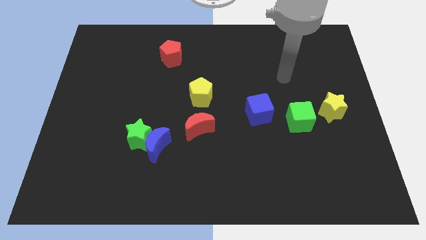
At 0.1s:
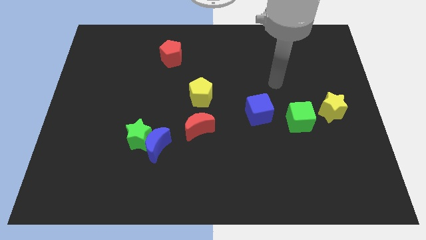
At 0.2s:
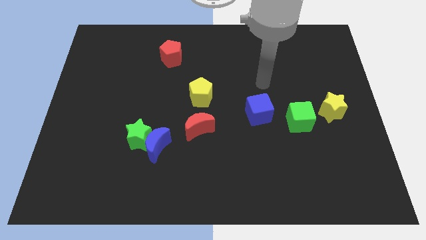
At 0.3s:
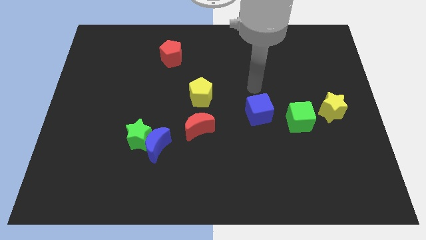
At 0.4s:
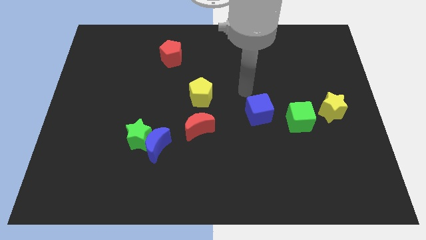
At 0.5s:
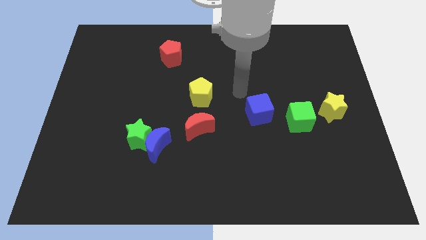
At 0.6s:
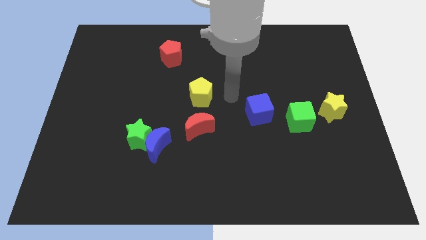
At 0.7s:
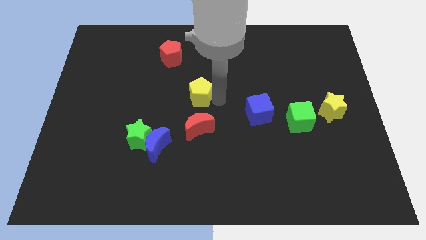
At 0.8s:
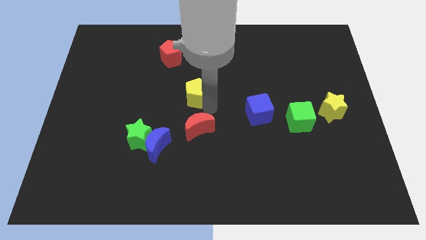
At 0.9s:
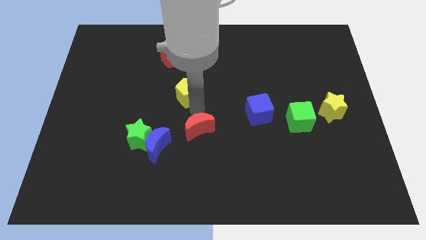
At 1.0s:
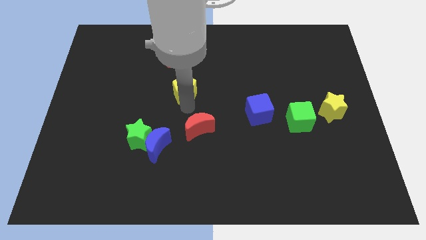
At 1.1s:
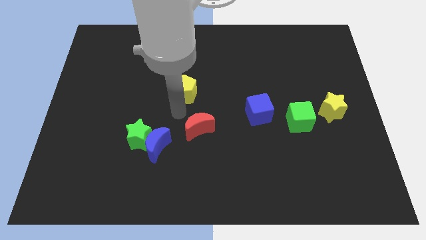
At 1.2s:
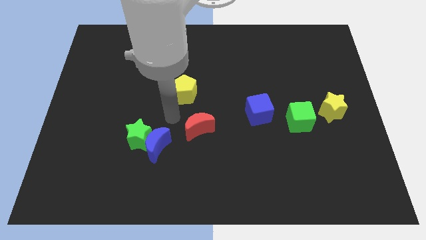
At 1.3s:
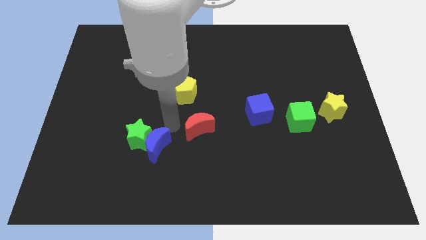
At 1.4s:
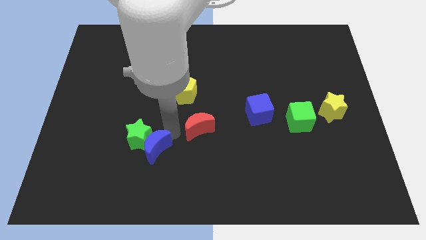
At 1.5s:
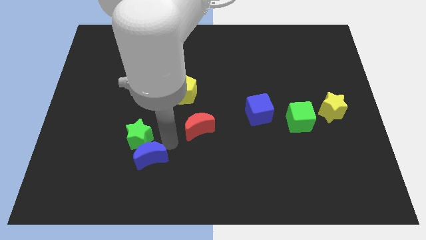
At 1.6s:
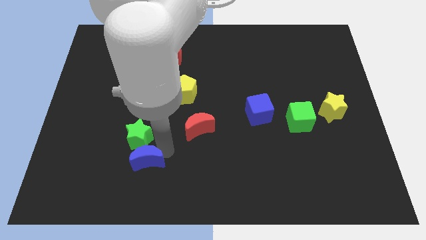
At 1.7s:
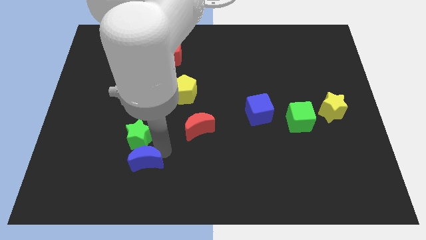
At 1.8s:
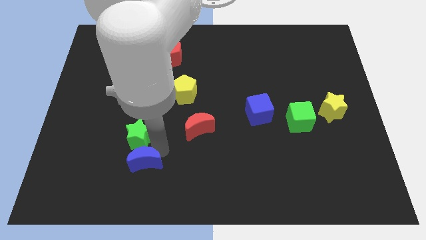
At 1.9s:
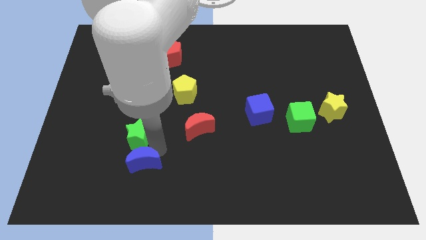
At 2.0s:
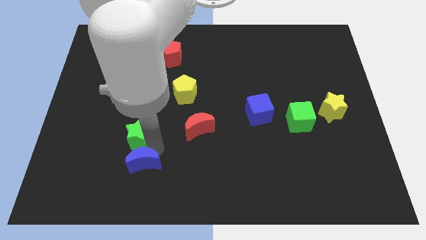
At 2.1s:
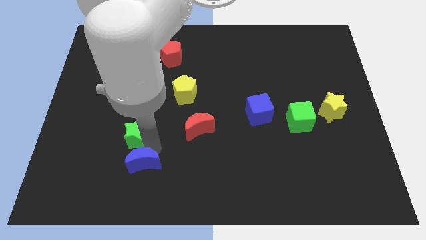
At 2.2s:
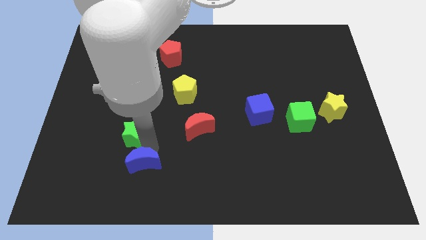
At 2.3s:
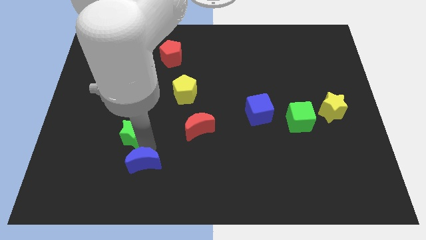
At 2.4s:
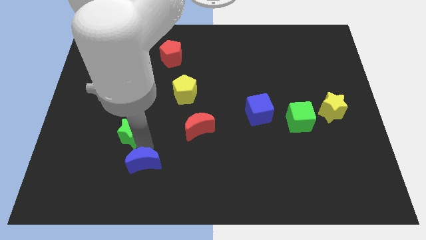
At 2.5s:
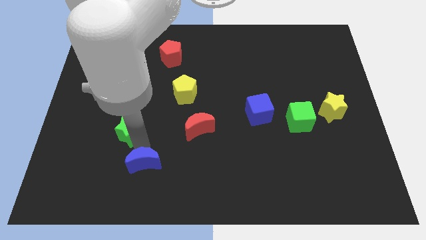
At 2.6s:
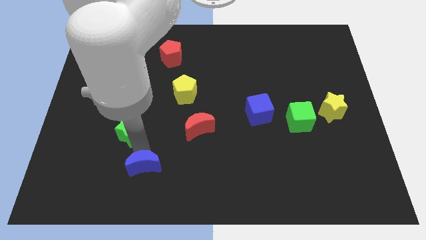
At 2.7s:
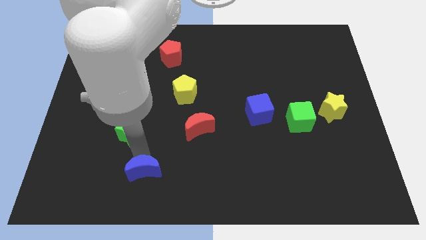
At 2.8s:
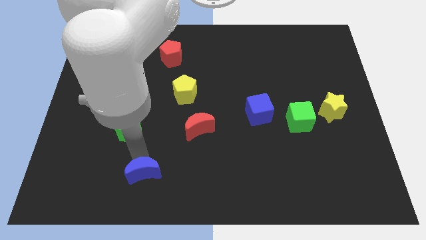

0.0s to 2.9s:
separate the green star from the blue moon

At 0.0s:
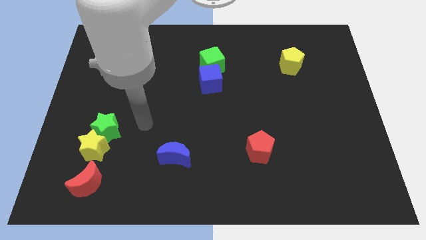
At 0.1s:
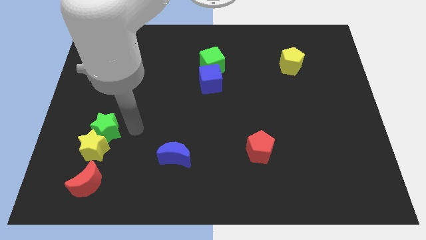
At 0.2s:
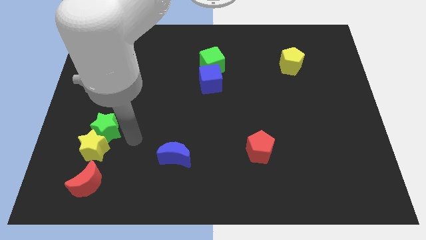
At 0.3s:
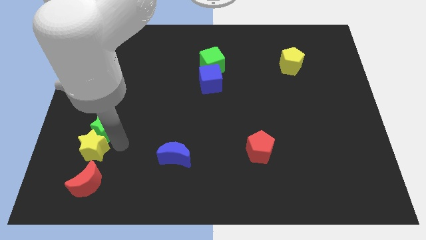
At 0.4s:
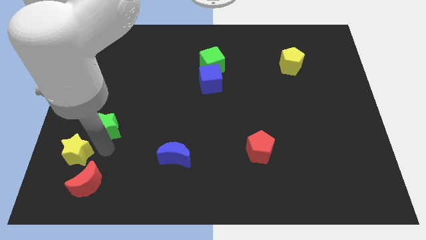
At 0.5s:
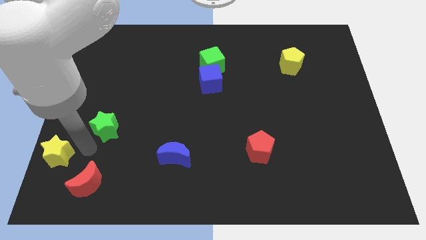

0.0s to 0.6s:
separate the green star from the yellow star

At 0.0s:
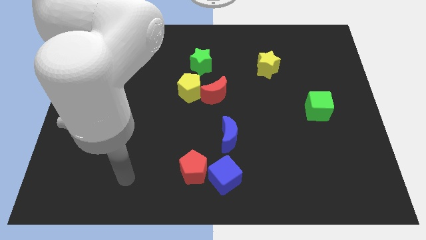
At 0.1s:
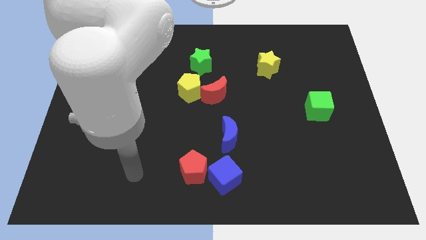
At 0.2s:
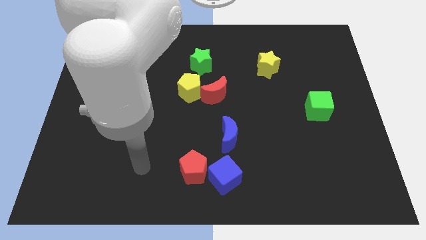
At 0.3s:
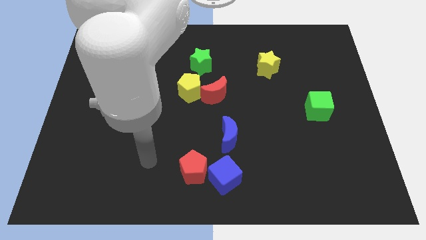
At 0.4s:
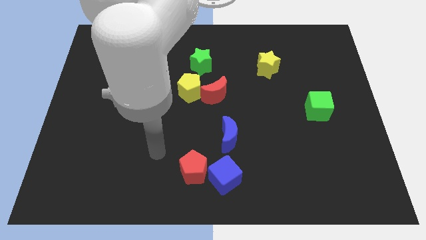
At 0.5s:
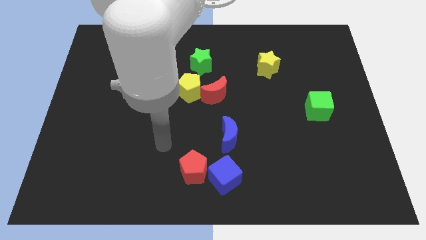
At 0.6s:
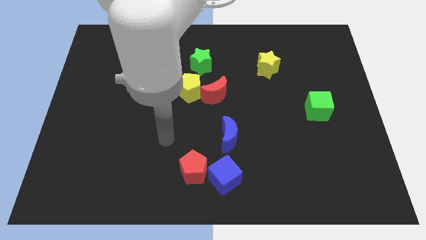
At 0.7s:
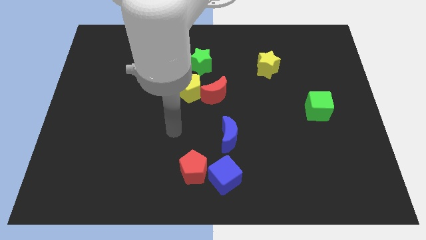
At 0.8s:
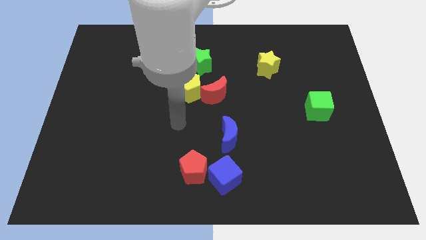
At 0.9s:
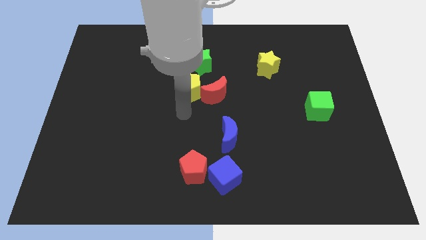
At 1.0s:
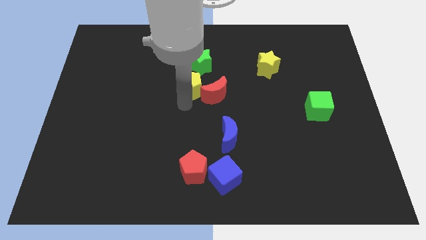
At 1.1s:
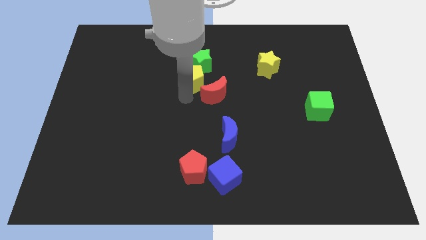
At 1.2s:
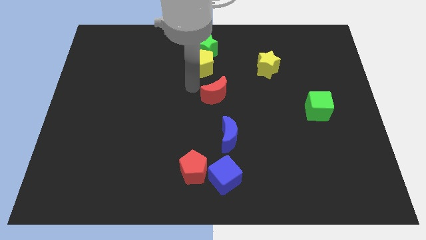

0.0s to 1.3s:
pull the red moon apart from the yellow pentagon

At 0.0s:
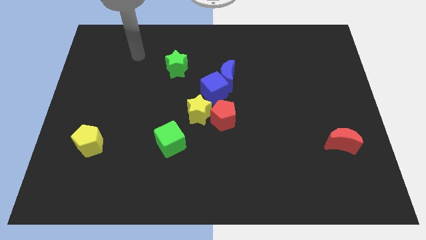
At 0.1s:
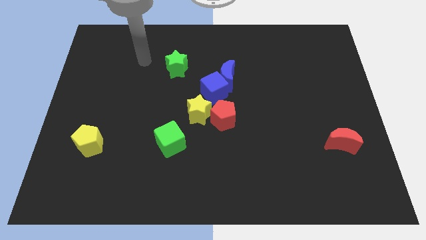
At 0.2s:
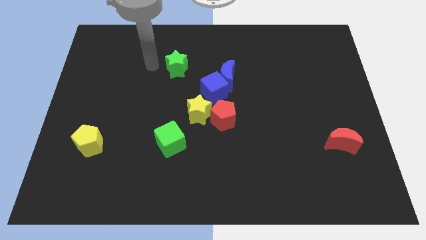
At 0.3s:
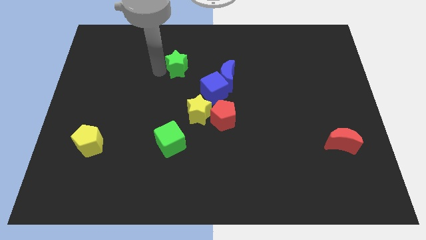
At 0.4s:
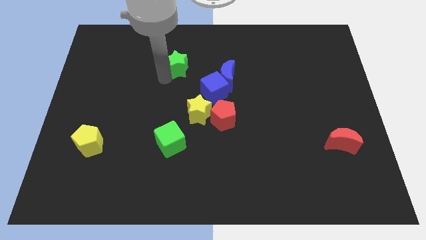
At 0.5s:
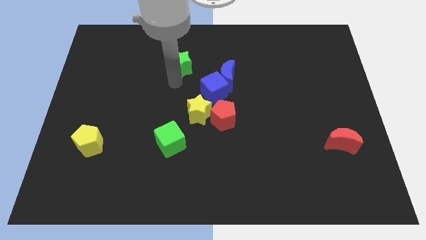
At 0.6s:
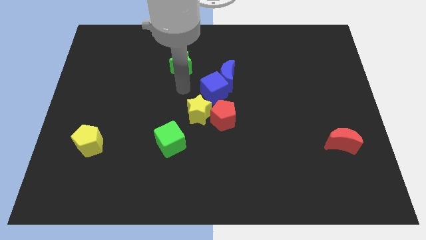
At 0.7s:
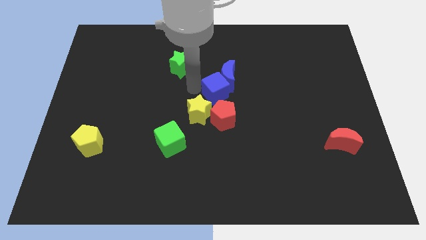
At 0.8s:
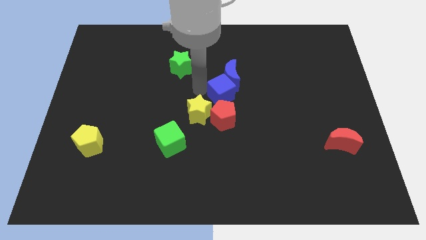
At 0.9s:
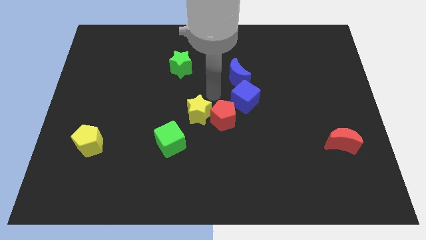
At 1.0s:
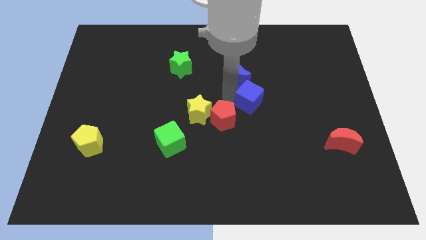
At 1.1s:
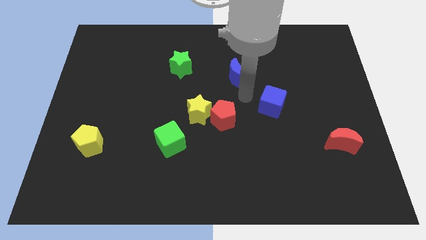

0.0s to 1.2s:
separate the blue moon from the blue cube

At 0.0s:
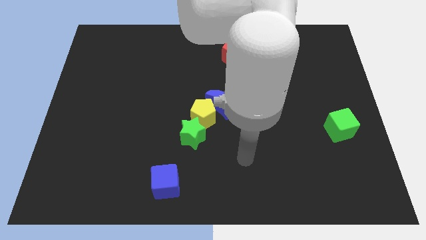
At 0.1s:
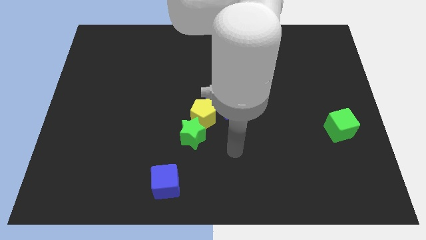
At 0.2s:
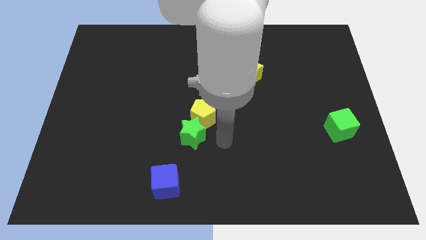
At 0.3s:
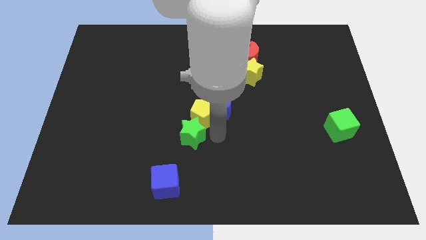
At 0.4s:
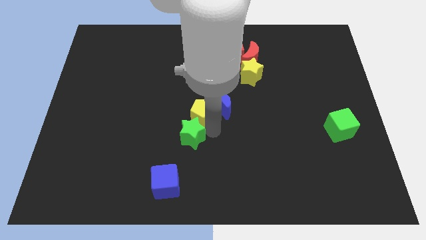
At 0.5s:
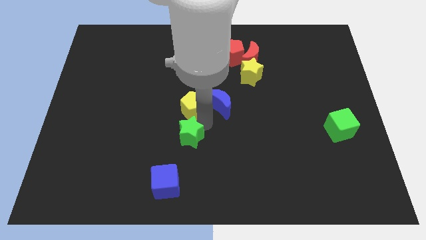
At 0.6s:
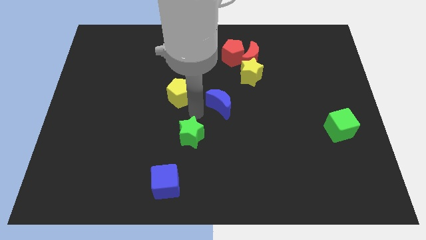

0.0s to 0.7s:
pull the blue moon apart from the yellow pentagon

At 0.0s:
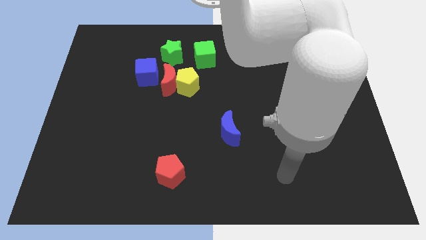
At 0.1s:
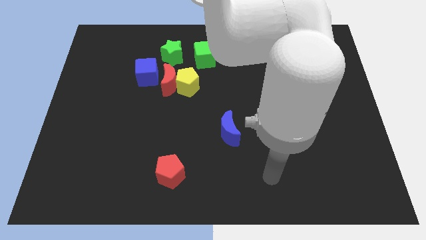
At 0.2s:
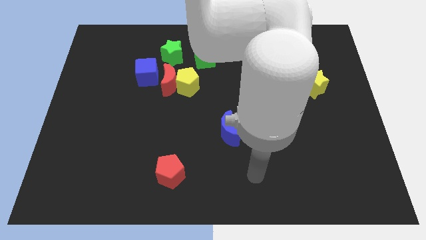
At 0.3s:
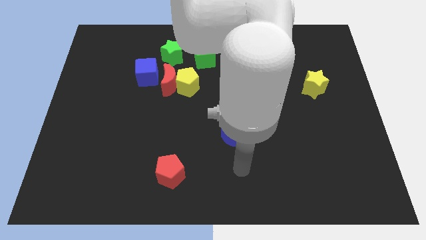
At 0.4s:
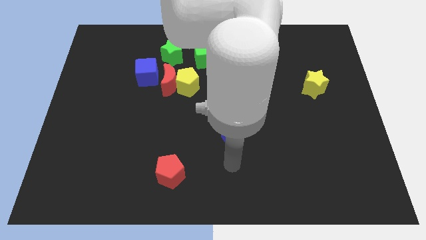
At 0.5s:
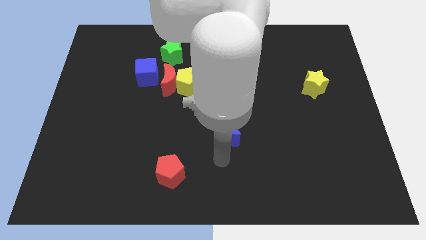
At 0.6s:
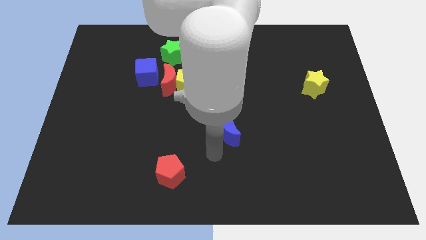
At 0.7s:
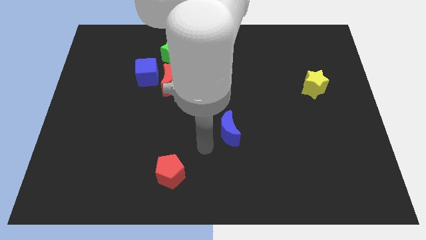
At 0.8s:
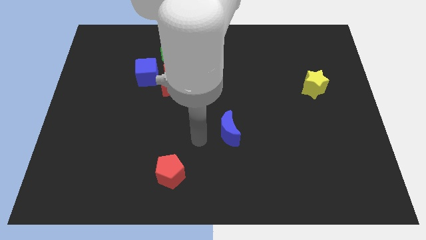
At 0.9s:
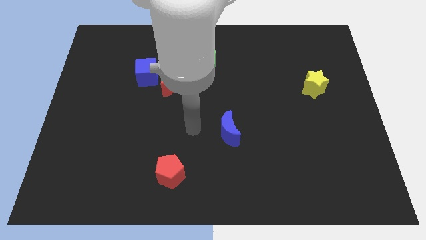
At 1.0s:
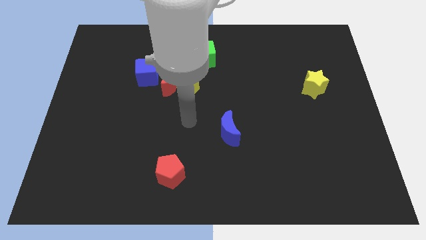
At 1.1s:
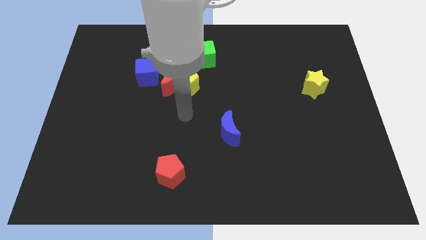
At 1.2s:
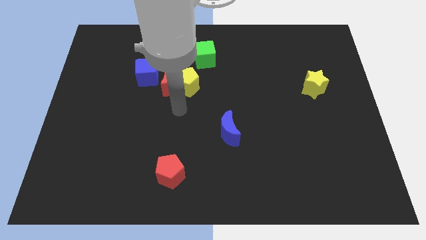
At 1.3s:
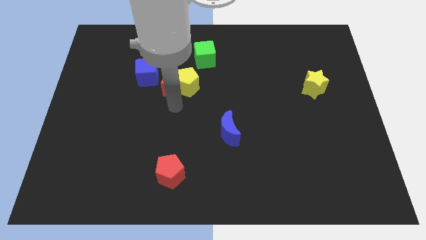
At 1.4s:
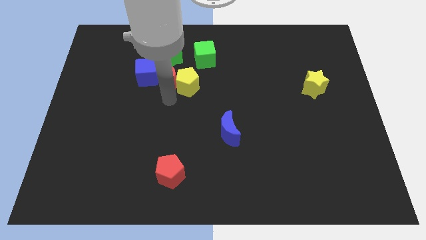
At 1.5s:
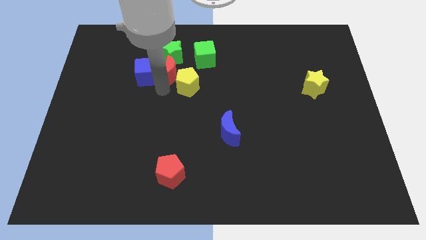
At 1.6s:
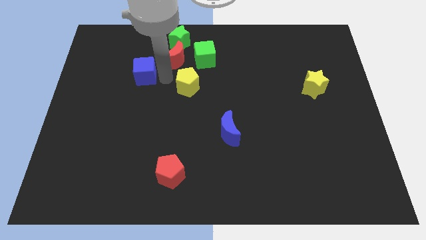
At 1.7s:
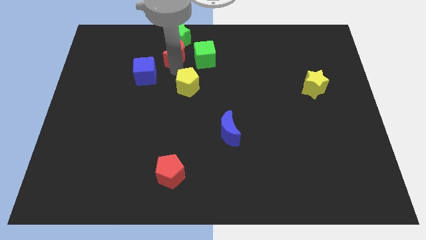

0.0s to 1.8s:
pull the yellow pentagon apart from the red moon

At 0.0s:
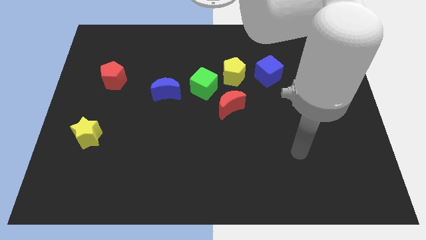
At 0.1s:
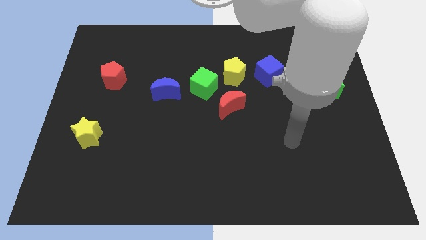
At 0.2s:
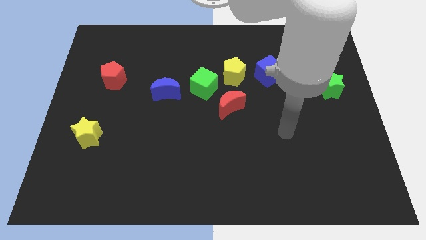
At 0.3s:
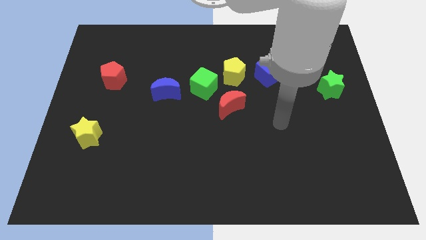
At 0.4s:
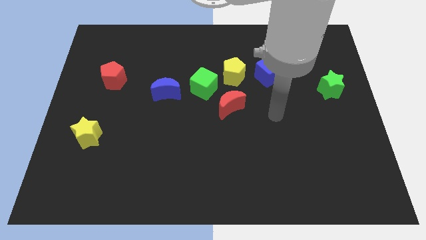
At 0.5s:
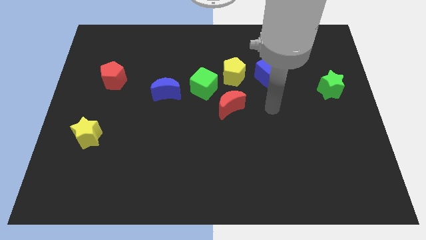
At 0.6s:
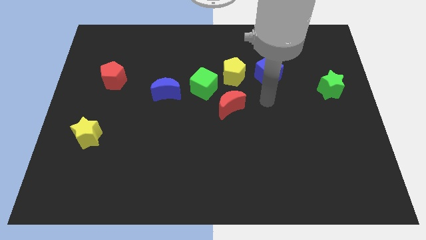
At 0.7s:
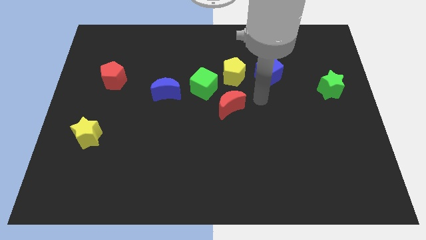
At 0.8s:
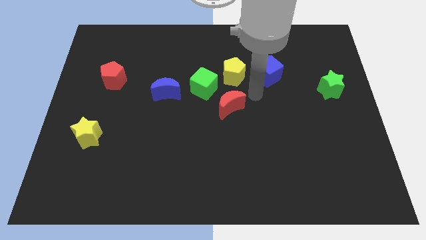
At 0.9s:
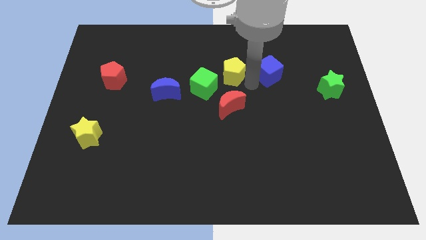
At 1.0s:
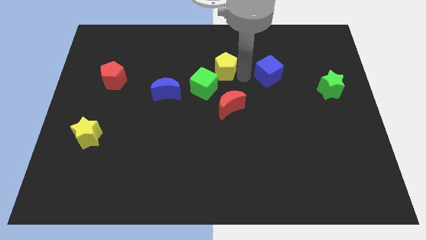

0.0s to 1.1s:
move the blue cube away from the yellow pentagon
